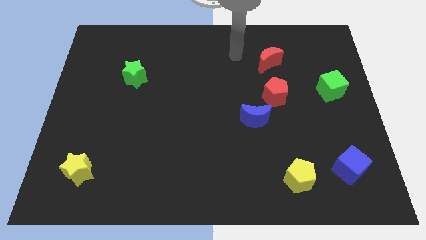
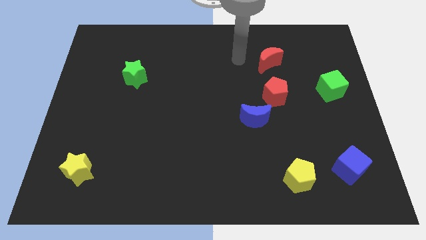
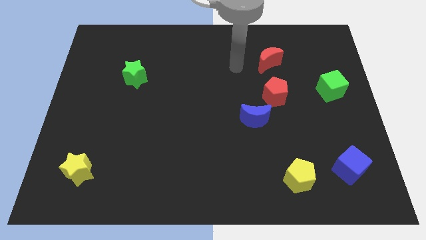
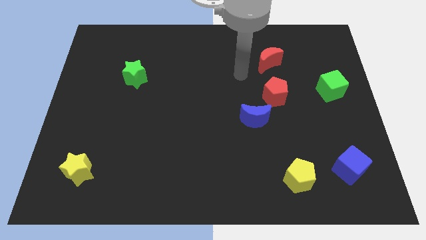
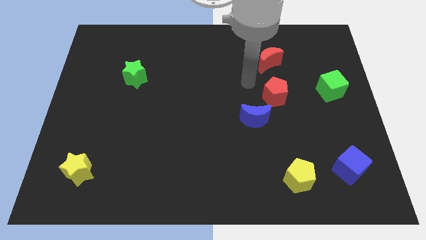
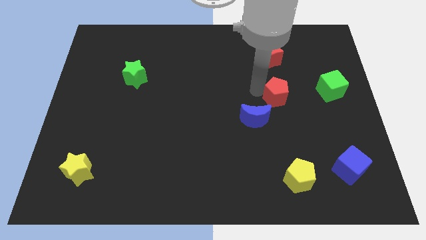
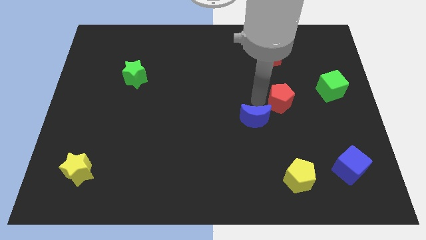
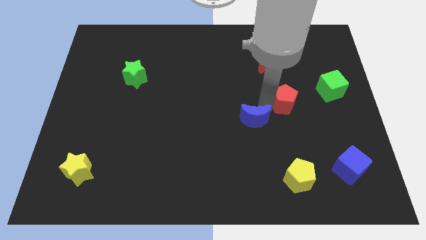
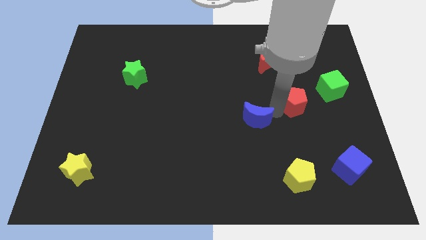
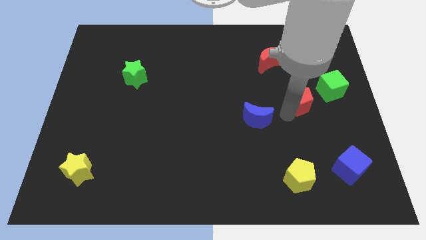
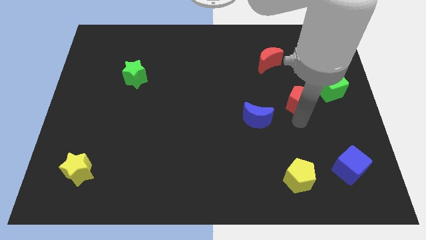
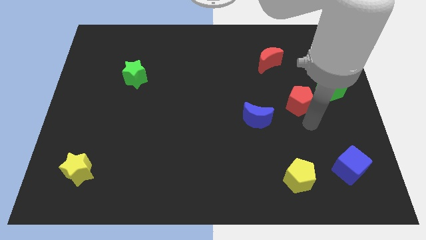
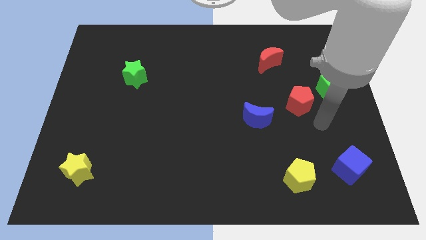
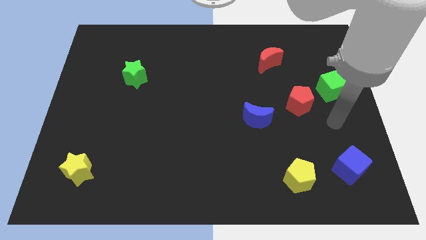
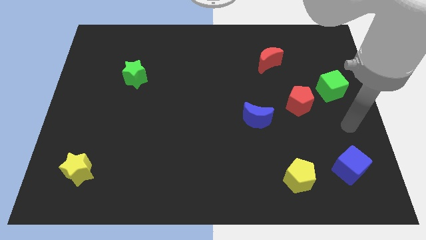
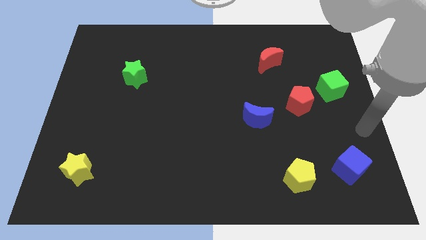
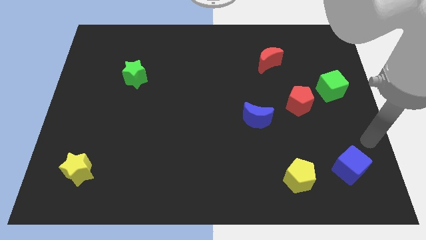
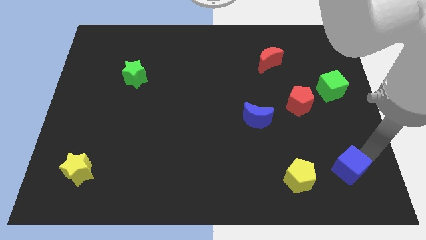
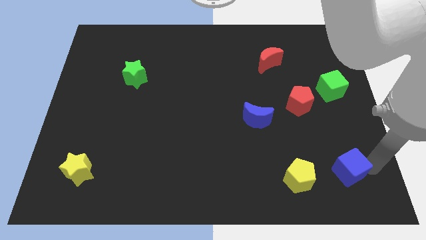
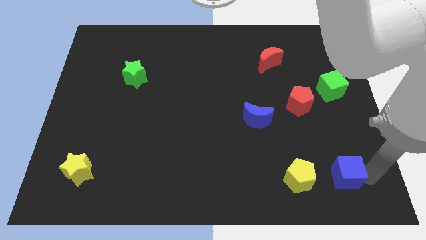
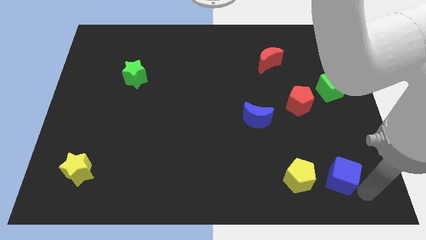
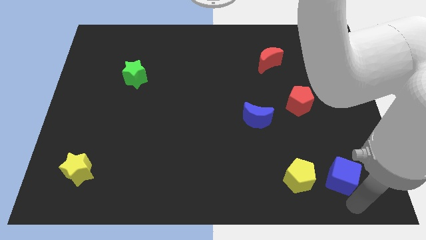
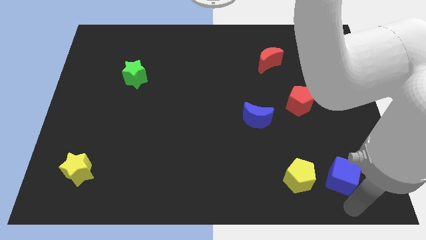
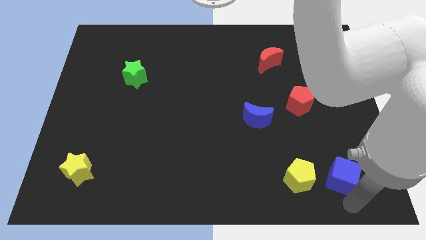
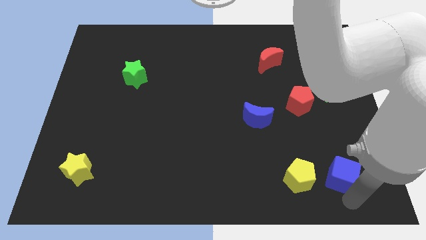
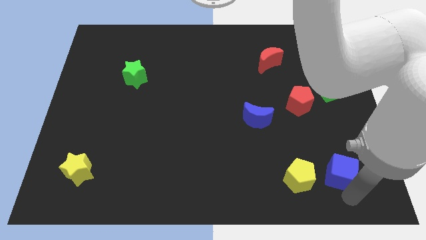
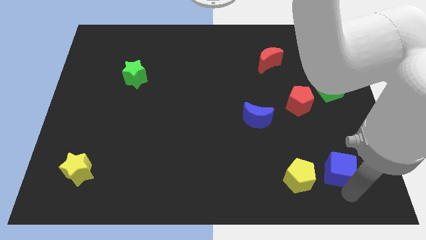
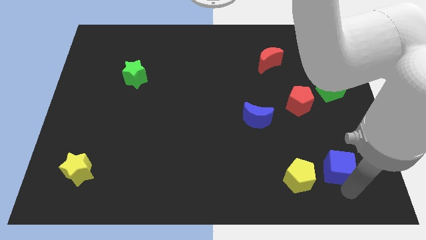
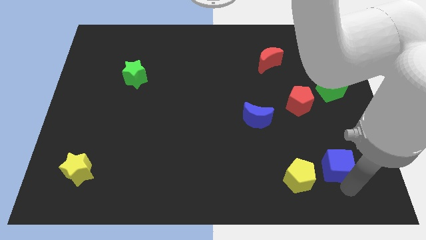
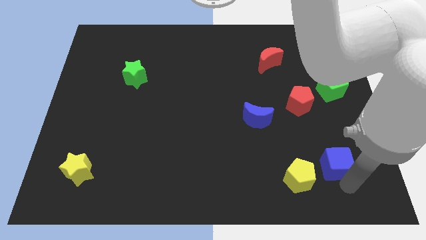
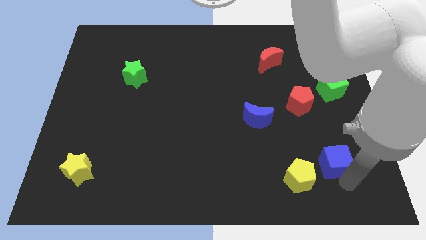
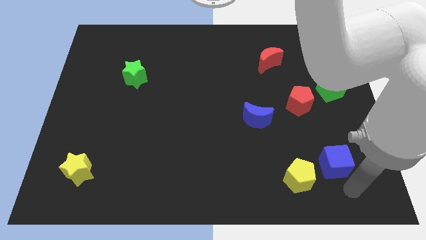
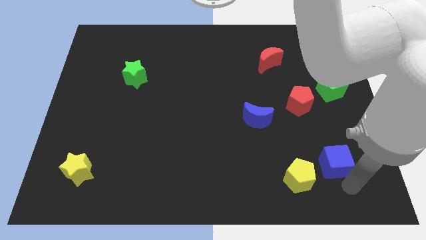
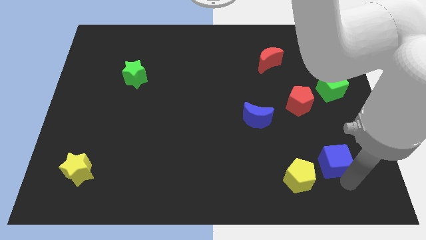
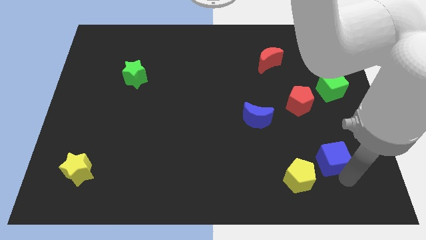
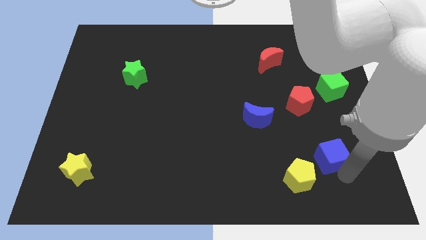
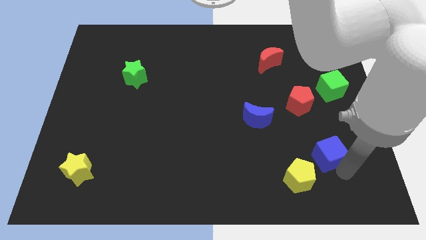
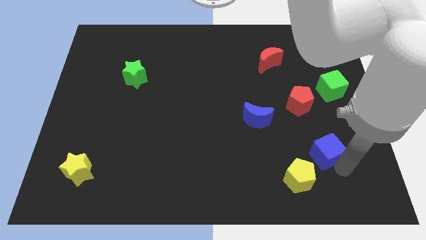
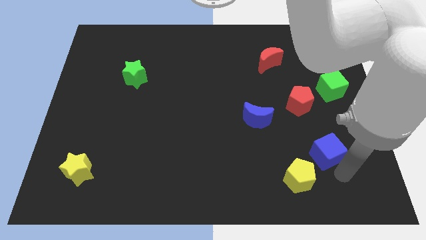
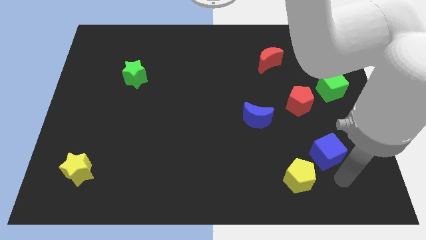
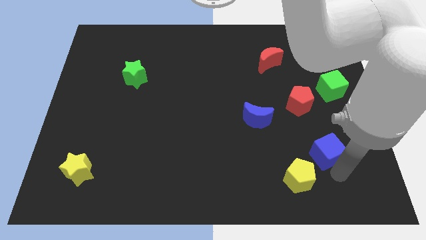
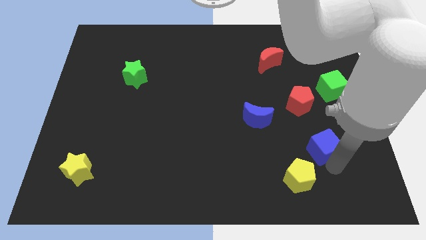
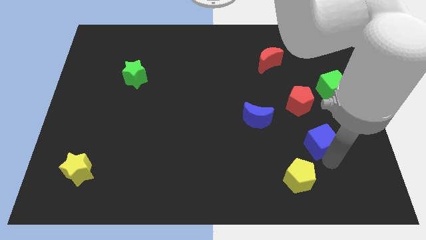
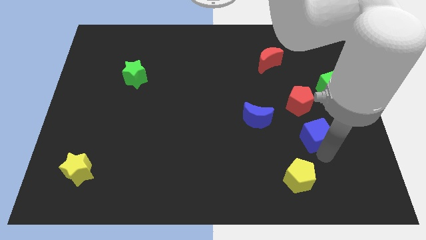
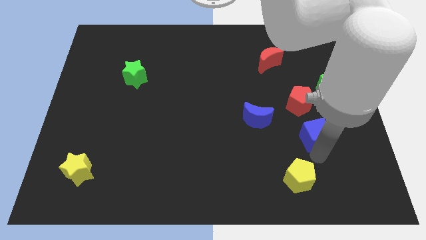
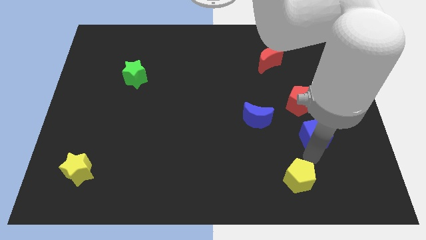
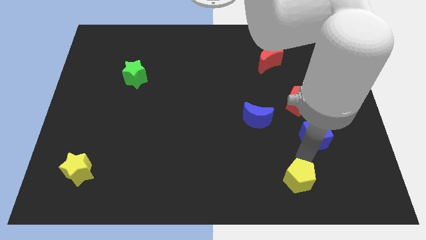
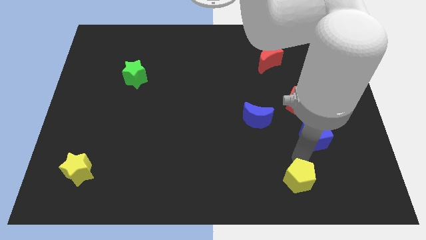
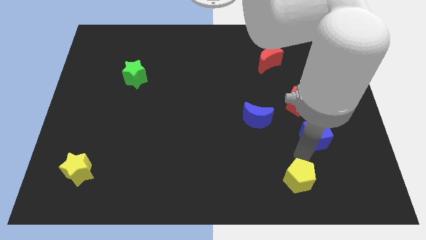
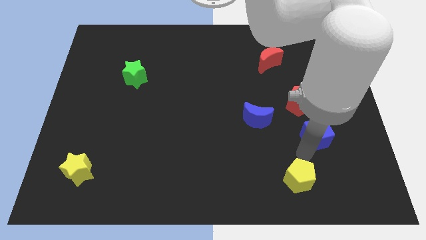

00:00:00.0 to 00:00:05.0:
put the blue cube diagonally down and to the right of the red pentagon

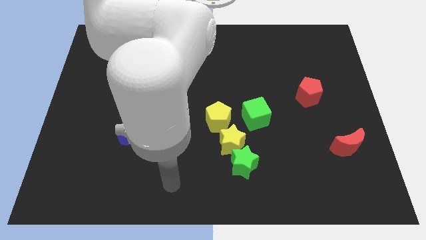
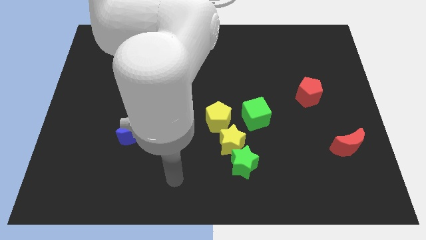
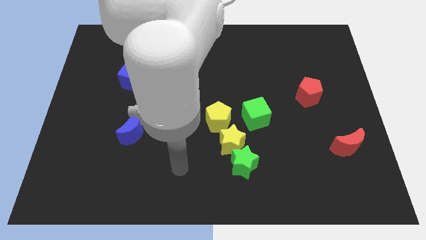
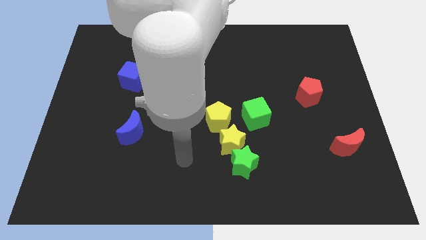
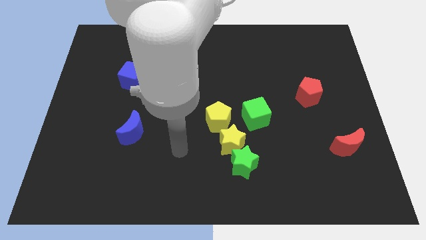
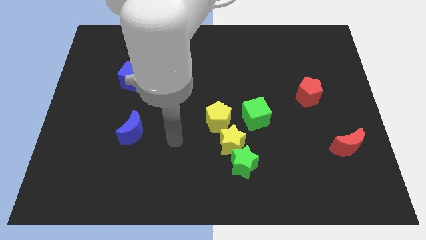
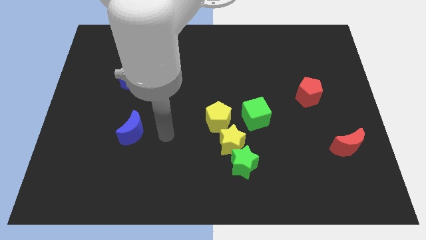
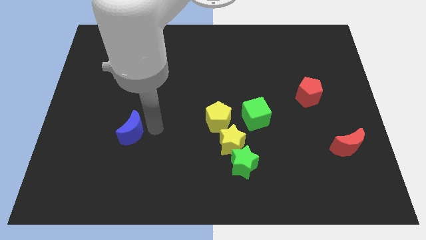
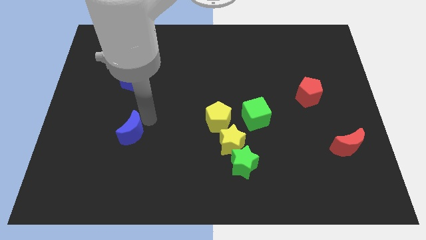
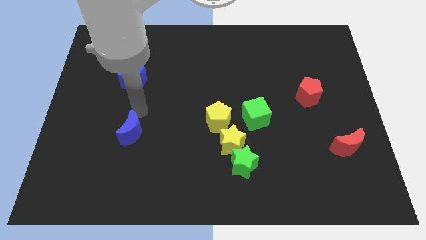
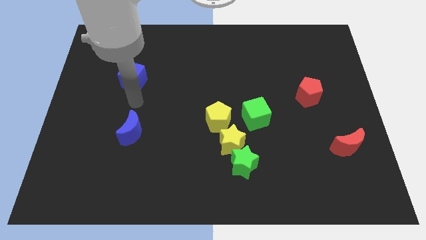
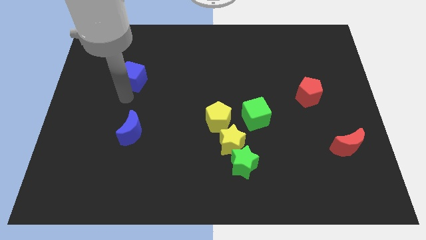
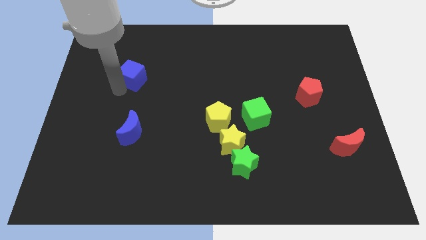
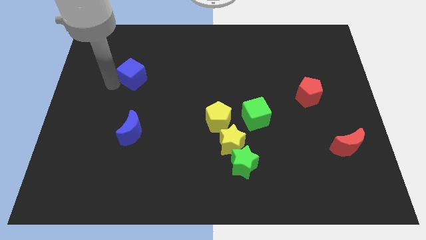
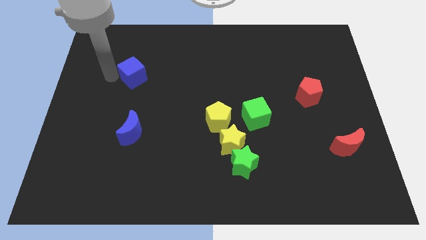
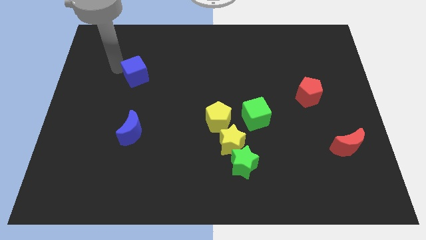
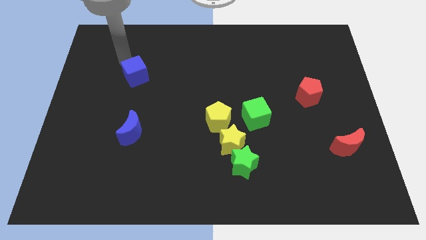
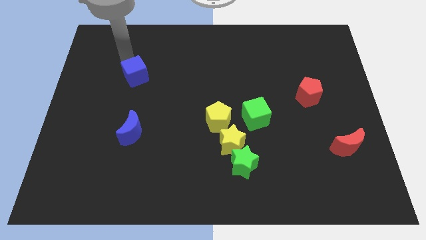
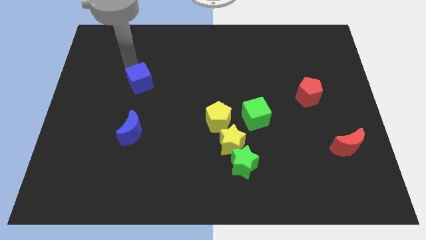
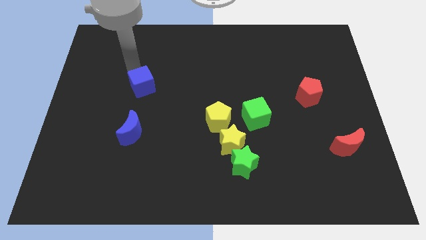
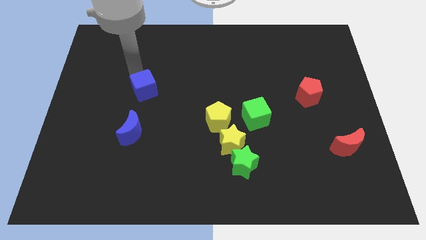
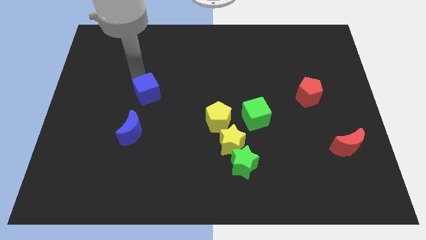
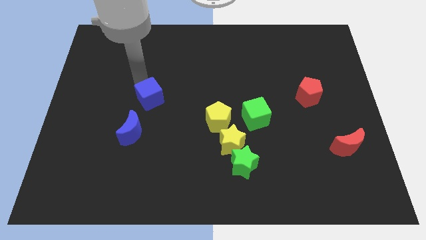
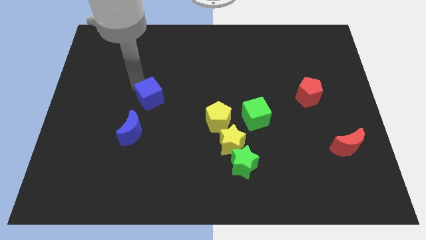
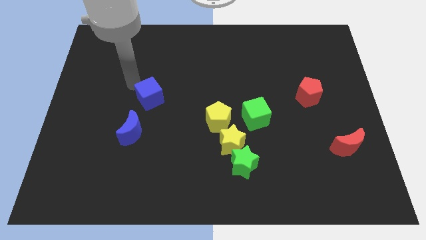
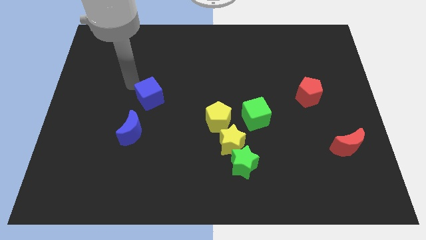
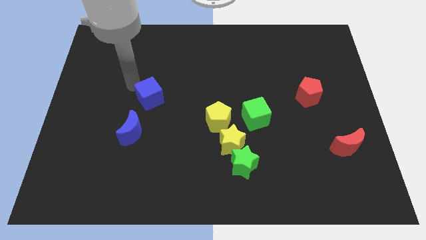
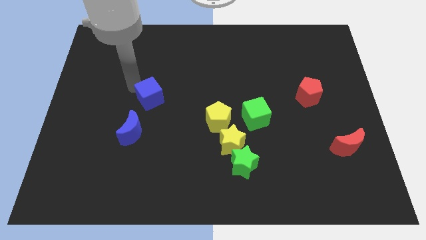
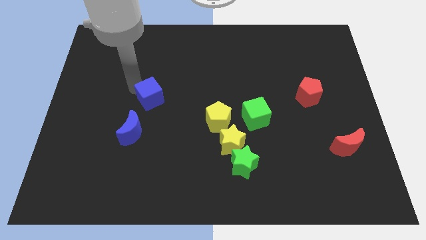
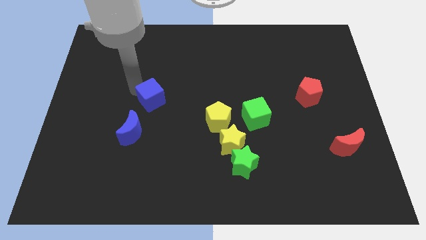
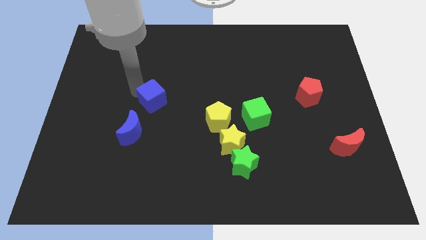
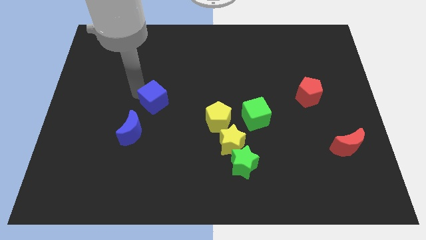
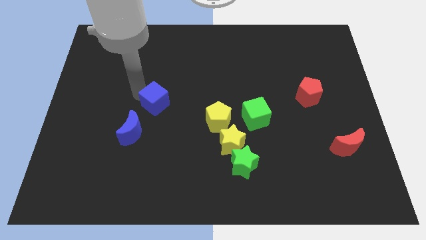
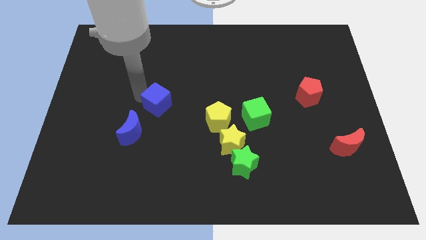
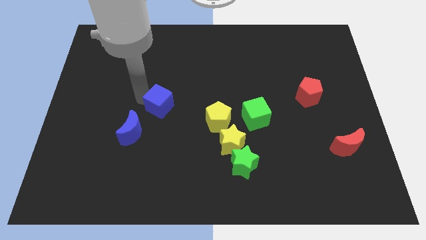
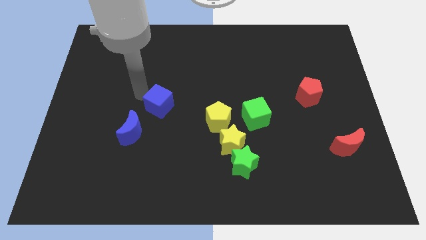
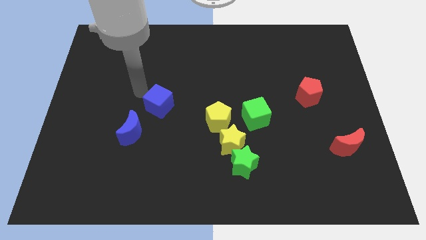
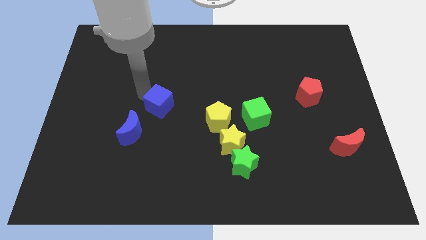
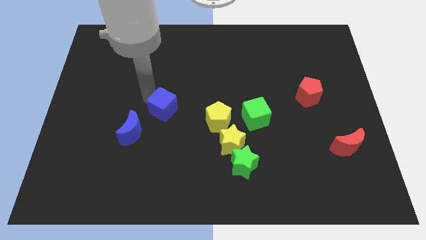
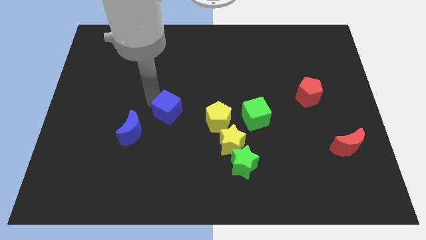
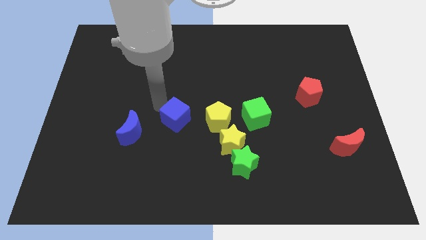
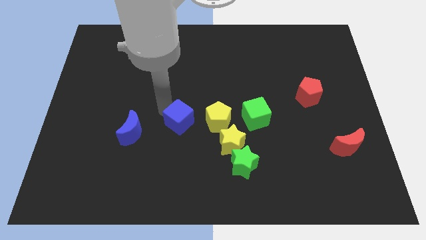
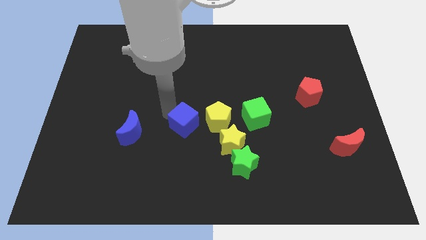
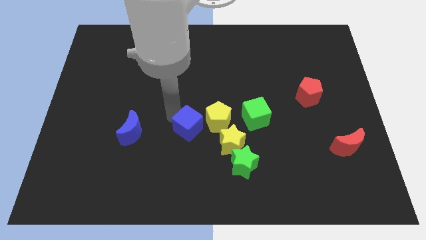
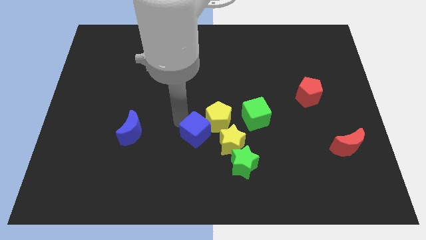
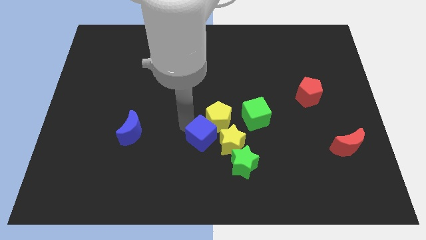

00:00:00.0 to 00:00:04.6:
slide the blue cube below the yellow pentagon
